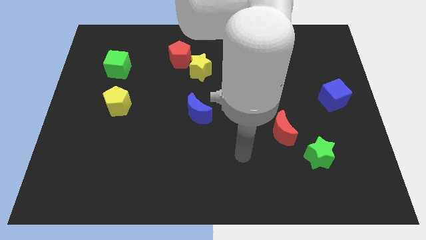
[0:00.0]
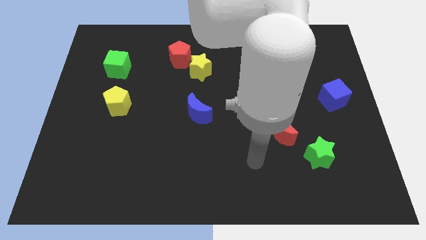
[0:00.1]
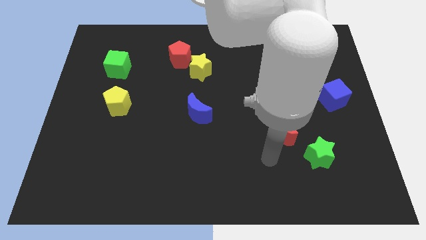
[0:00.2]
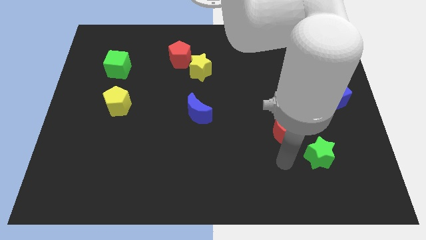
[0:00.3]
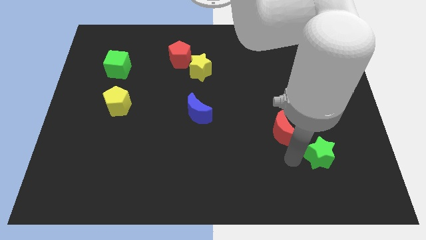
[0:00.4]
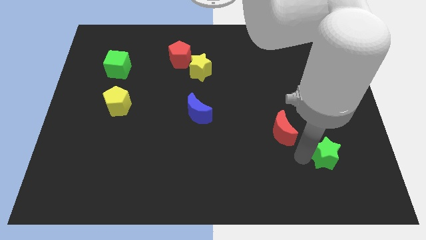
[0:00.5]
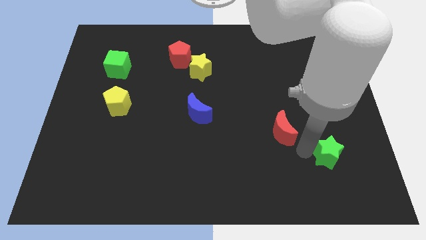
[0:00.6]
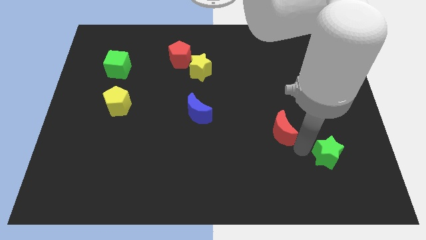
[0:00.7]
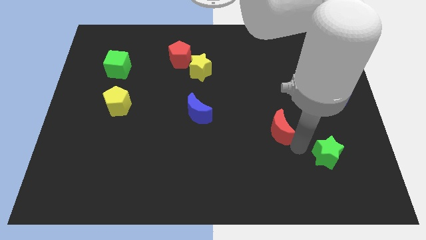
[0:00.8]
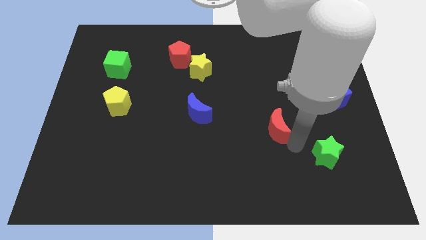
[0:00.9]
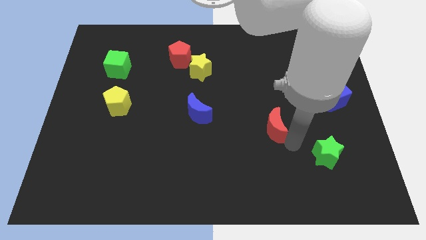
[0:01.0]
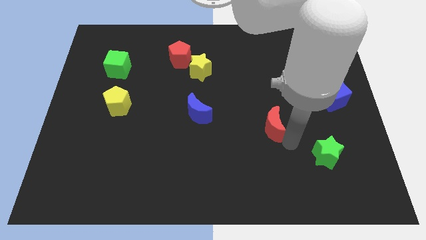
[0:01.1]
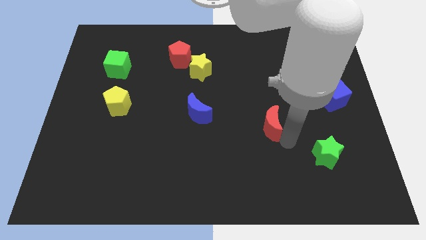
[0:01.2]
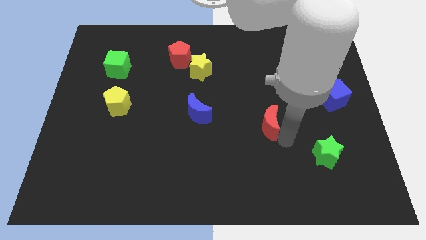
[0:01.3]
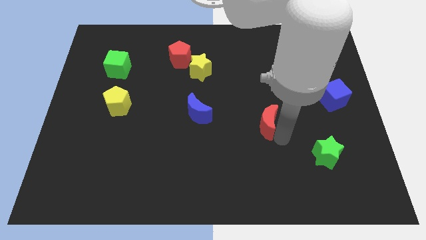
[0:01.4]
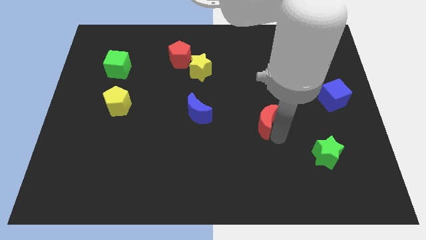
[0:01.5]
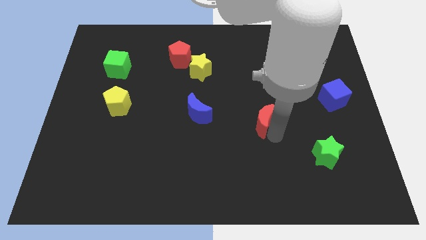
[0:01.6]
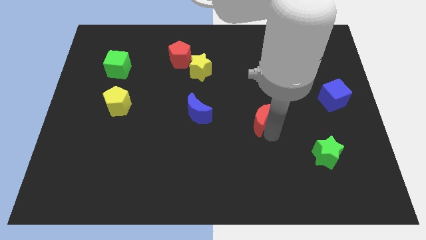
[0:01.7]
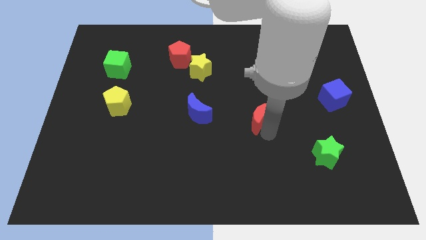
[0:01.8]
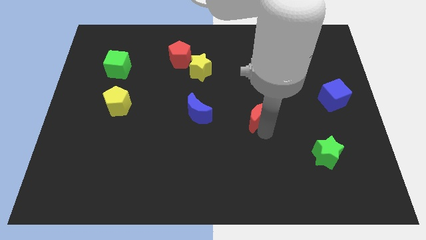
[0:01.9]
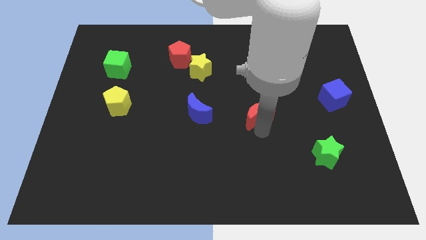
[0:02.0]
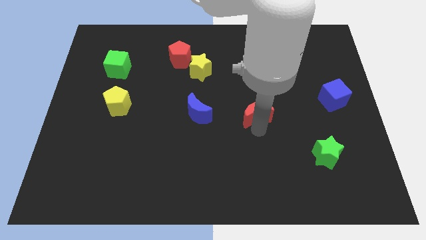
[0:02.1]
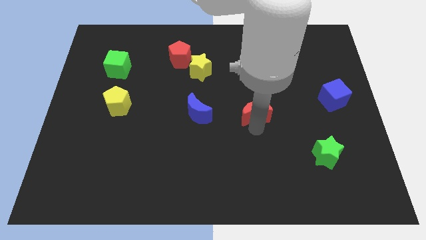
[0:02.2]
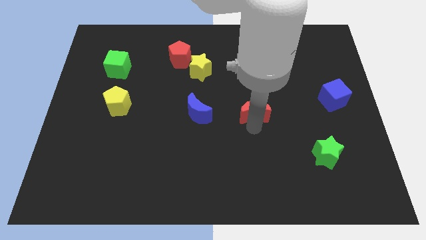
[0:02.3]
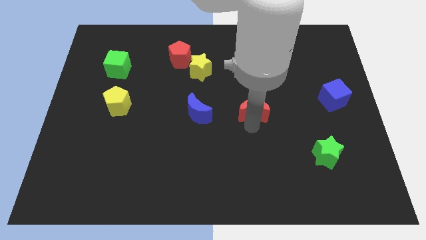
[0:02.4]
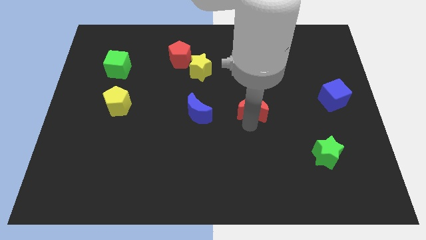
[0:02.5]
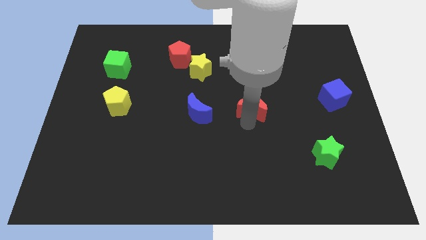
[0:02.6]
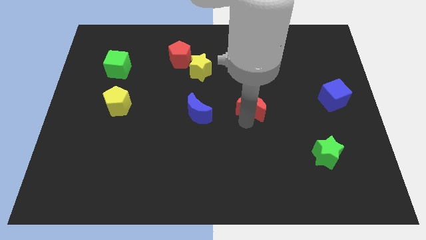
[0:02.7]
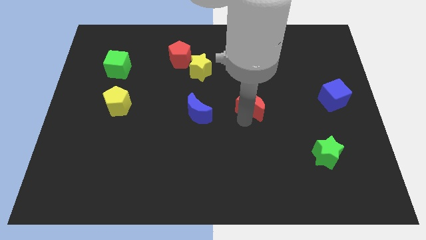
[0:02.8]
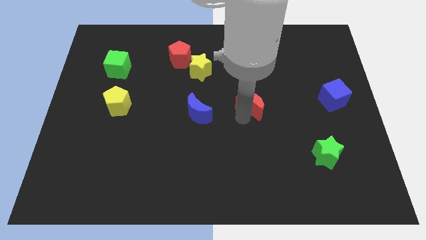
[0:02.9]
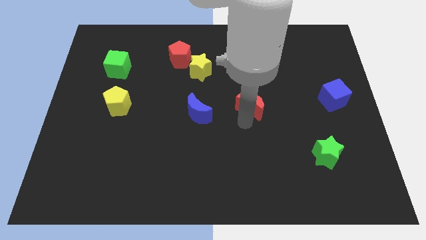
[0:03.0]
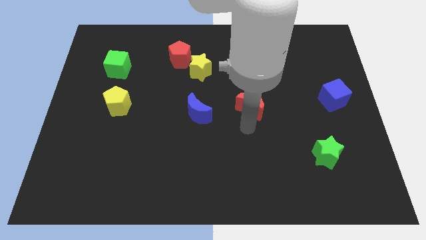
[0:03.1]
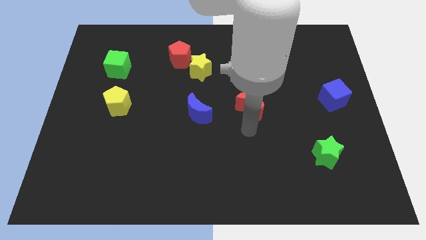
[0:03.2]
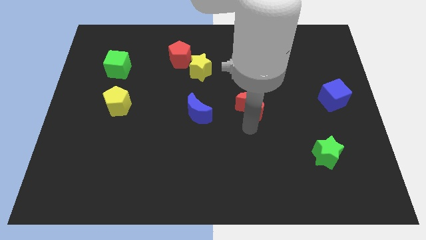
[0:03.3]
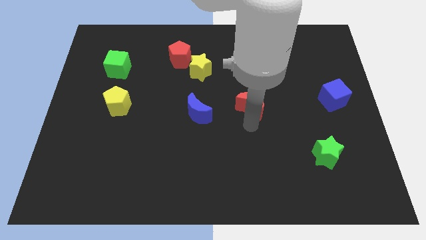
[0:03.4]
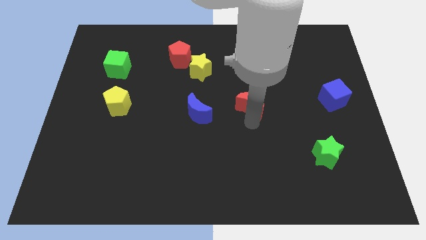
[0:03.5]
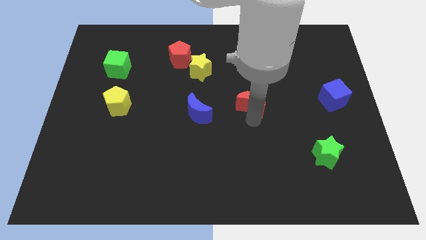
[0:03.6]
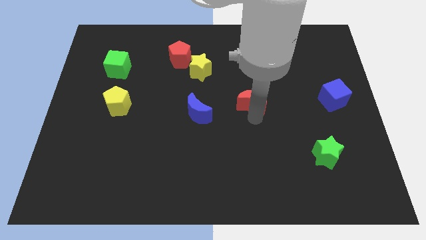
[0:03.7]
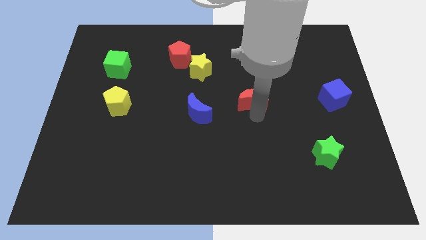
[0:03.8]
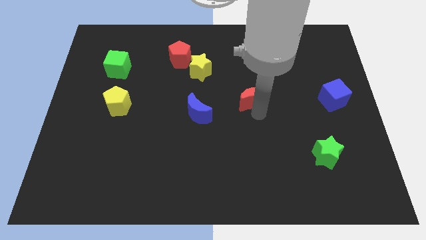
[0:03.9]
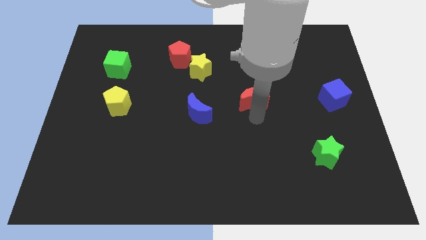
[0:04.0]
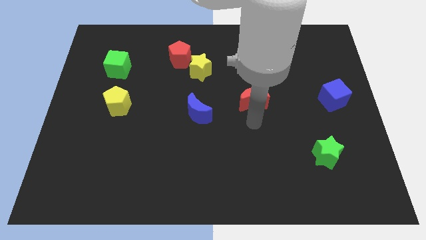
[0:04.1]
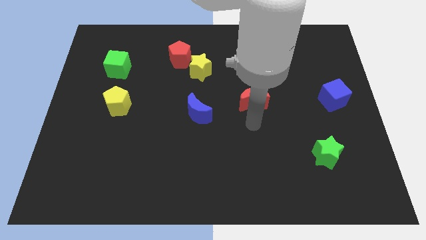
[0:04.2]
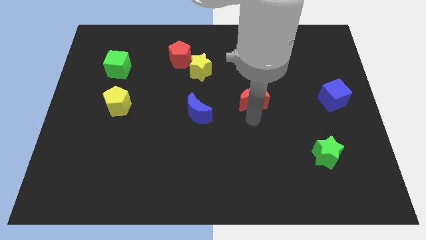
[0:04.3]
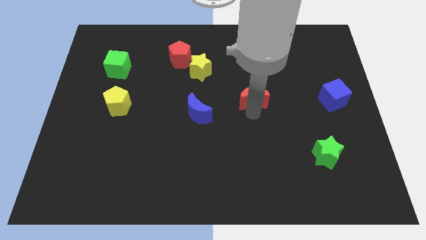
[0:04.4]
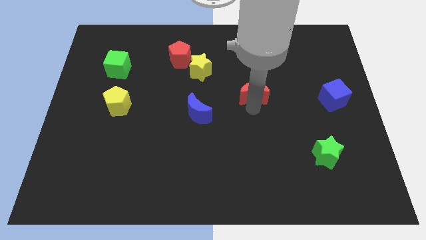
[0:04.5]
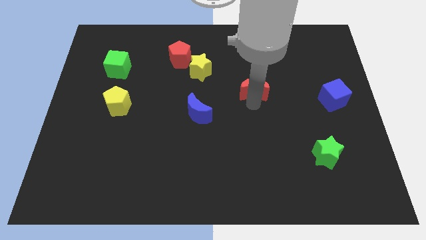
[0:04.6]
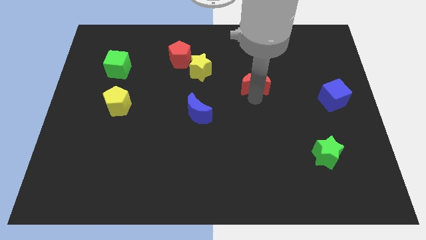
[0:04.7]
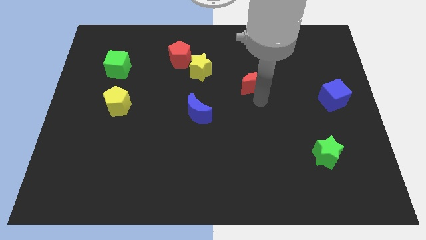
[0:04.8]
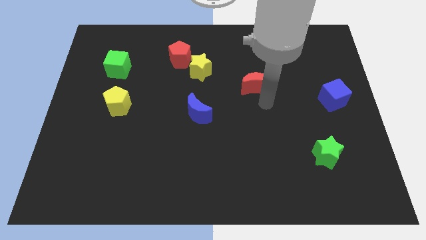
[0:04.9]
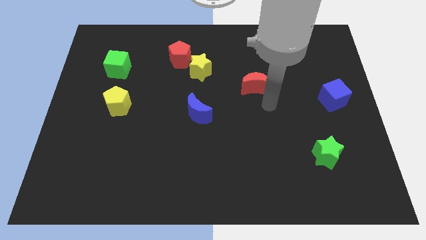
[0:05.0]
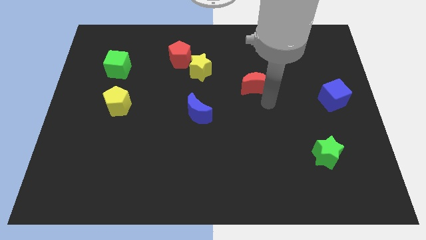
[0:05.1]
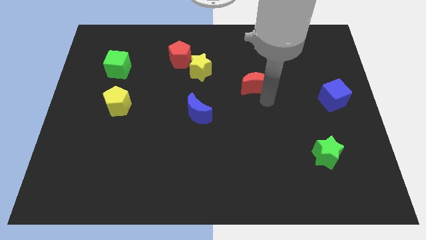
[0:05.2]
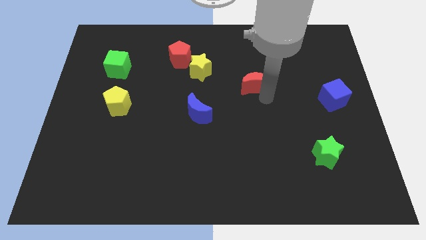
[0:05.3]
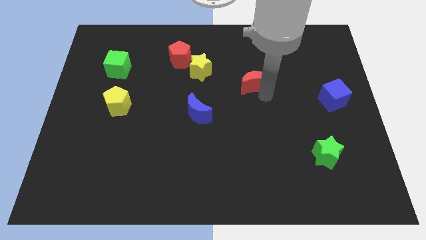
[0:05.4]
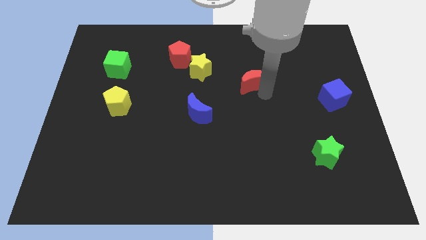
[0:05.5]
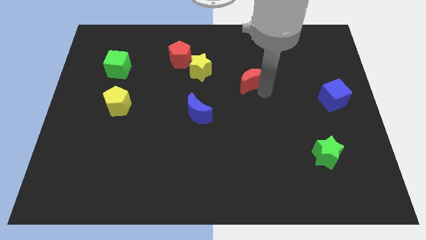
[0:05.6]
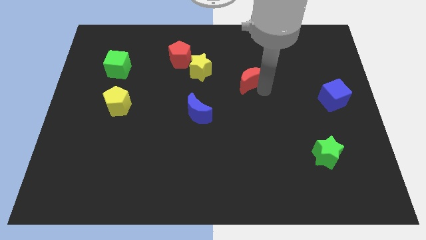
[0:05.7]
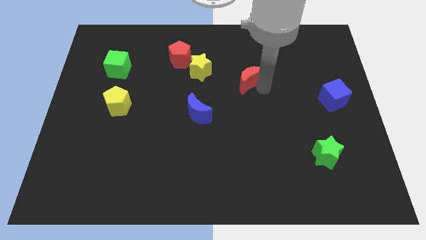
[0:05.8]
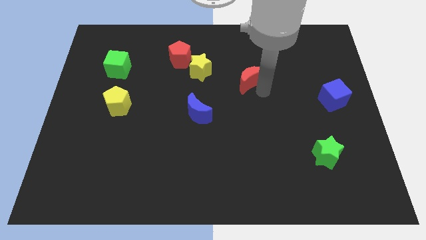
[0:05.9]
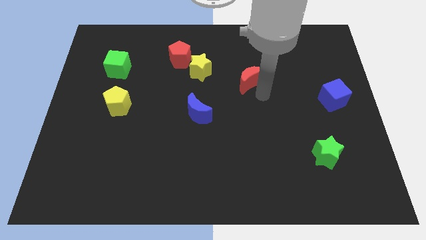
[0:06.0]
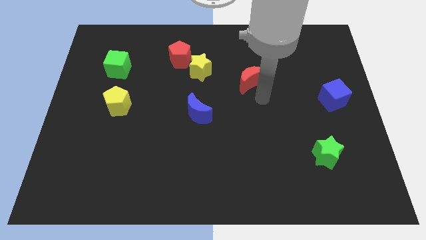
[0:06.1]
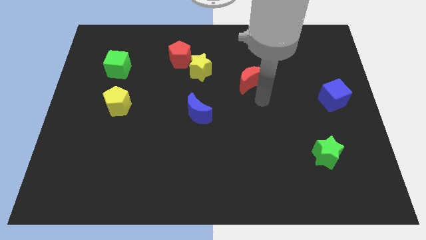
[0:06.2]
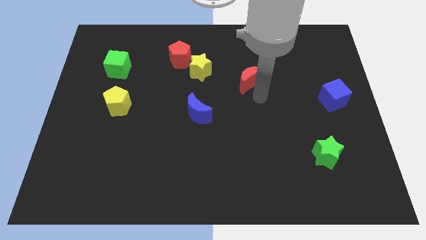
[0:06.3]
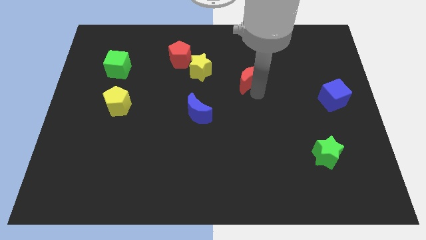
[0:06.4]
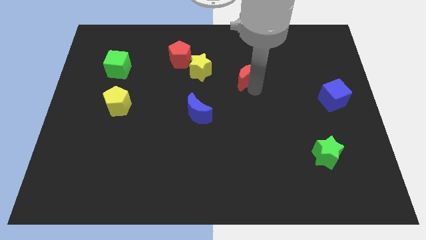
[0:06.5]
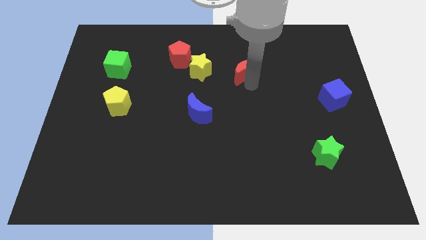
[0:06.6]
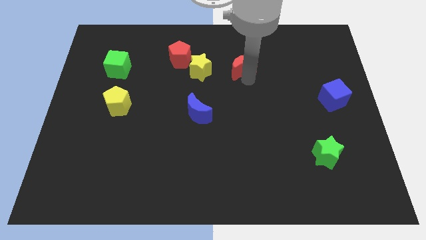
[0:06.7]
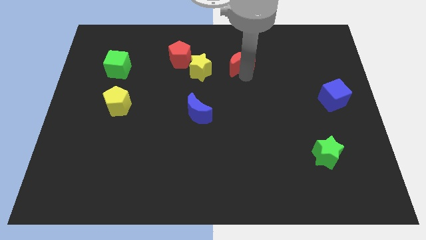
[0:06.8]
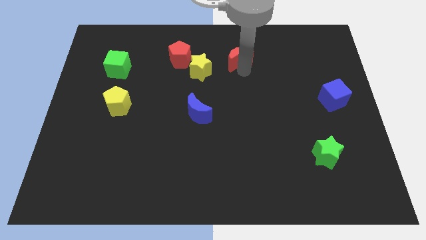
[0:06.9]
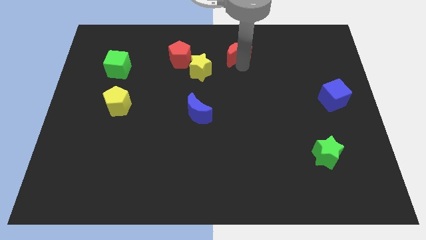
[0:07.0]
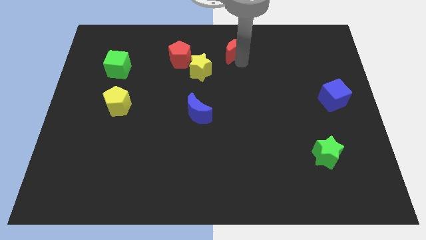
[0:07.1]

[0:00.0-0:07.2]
slide the red moon to the towards your base

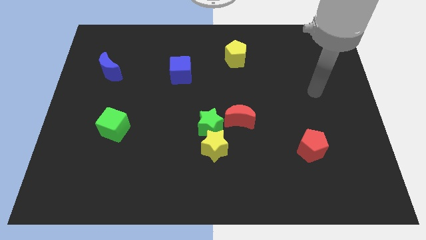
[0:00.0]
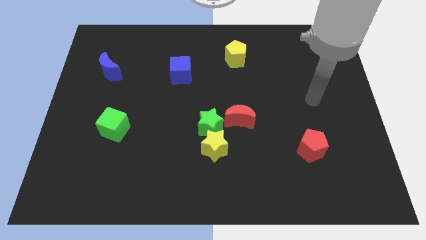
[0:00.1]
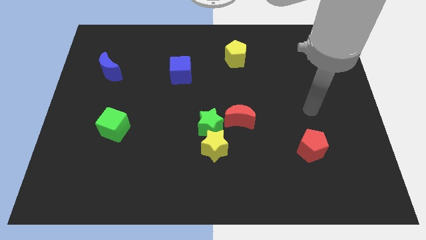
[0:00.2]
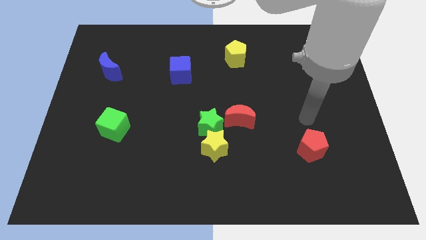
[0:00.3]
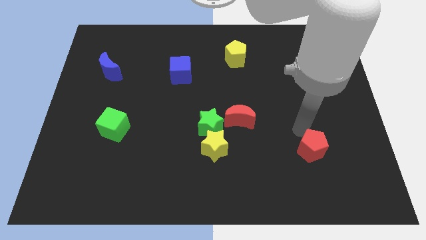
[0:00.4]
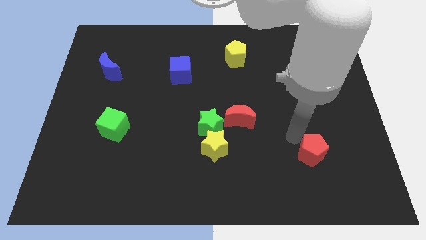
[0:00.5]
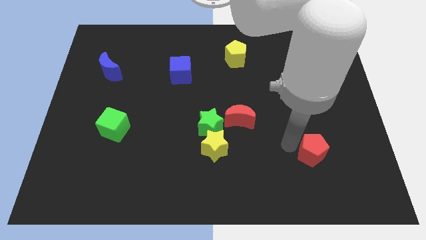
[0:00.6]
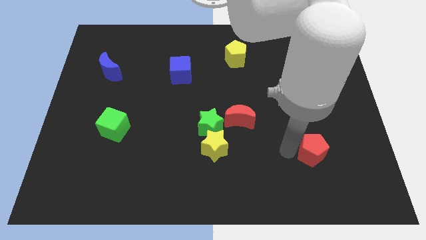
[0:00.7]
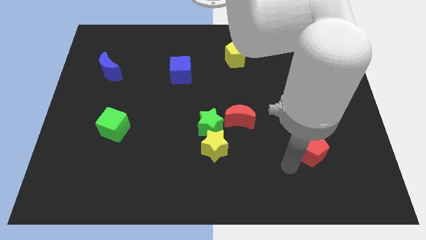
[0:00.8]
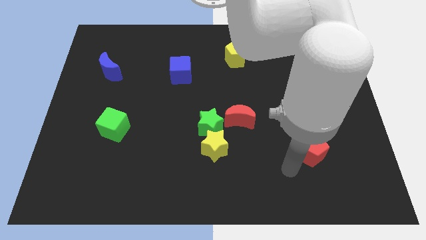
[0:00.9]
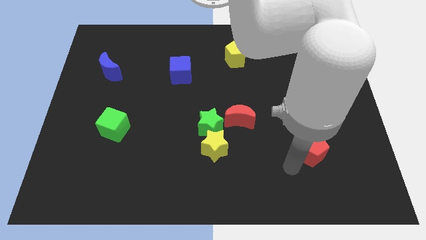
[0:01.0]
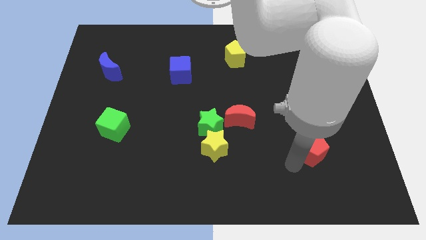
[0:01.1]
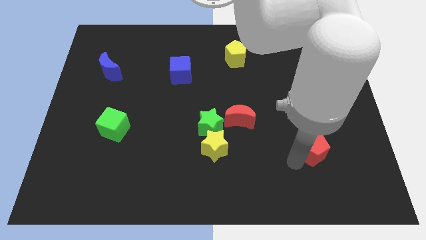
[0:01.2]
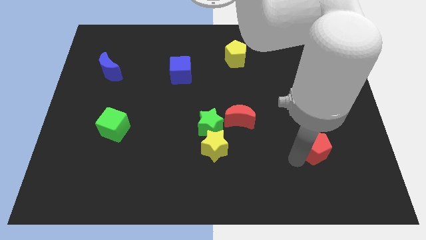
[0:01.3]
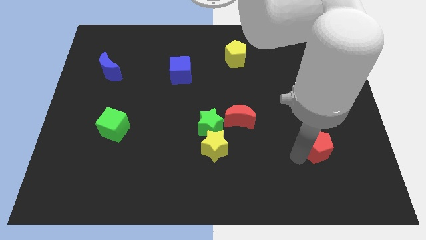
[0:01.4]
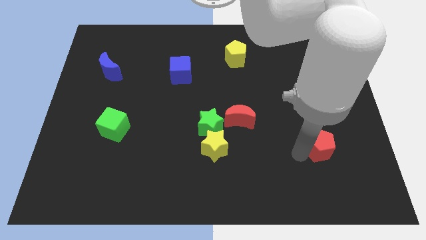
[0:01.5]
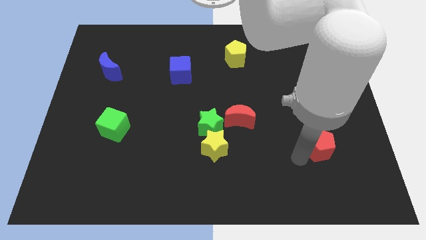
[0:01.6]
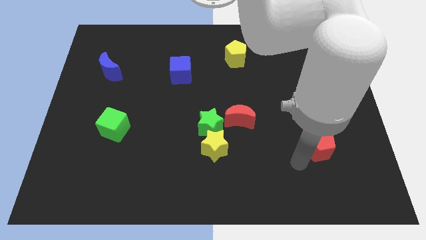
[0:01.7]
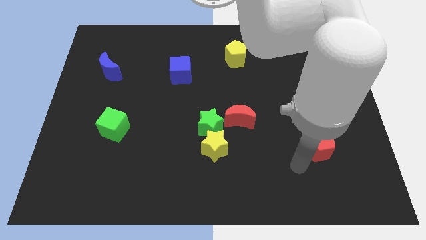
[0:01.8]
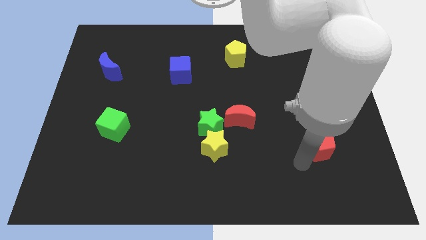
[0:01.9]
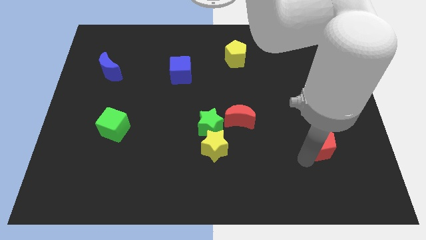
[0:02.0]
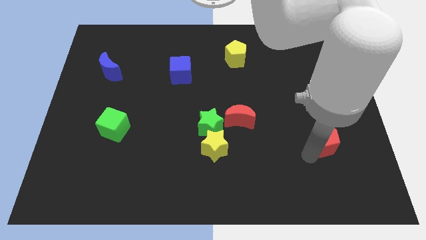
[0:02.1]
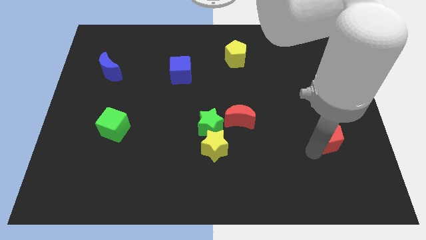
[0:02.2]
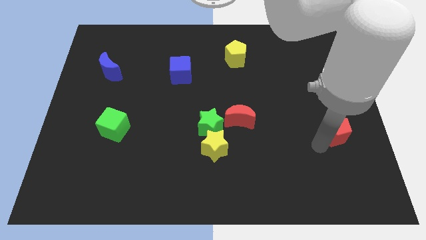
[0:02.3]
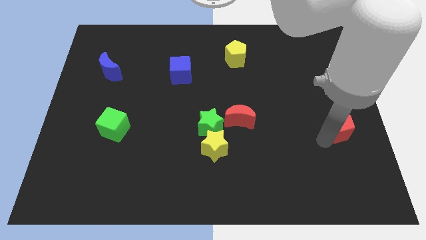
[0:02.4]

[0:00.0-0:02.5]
slide the red pentagon to the center right
